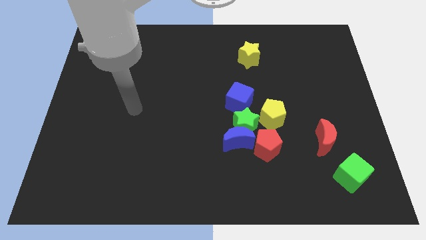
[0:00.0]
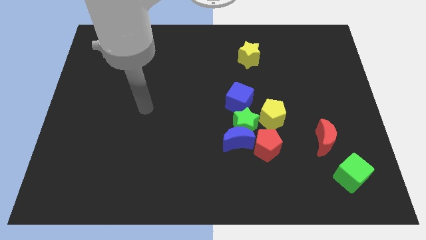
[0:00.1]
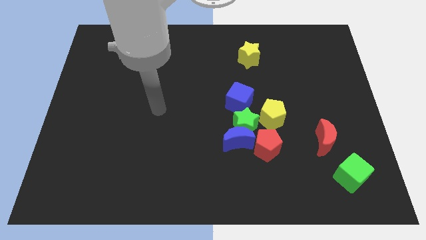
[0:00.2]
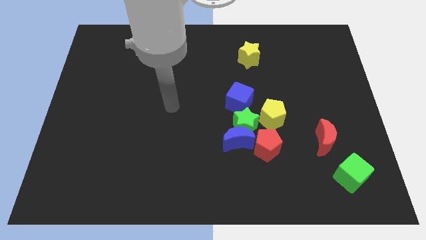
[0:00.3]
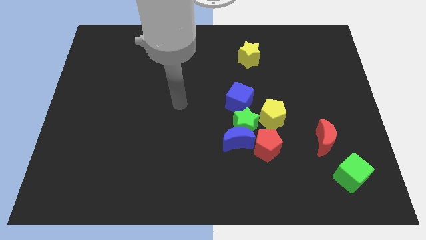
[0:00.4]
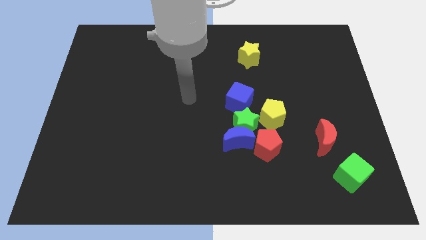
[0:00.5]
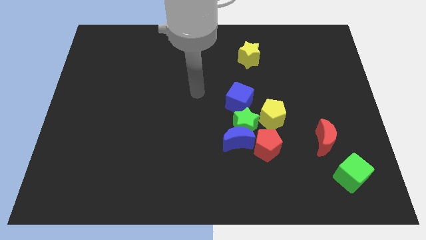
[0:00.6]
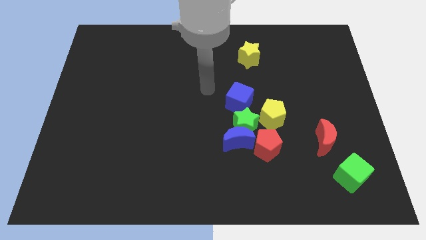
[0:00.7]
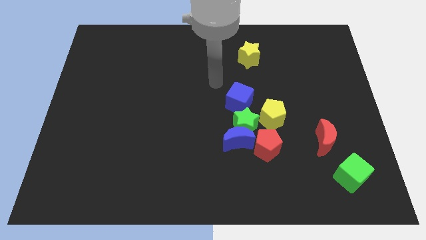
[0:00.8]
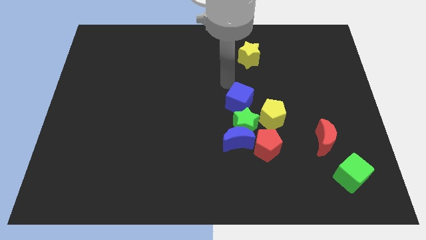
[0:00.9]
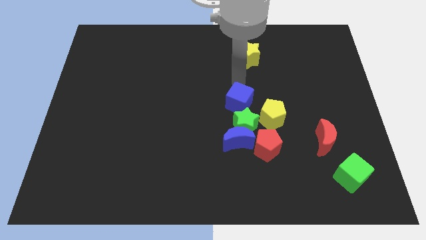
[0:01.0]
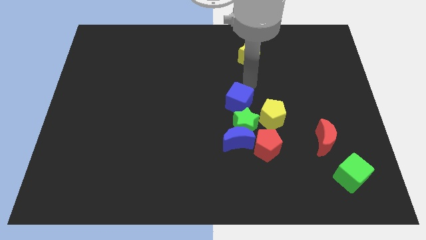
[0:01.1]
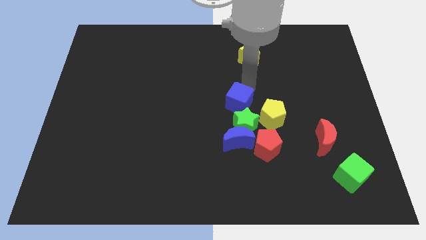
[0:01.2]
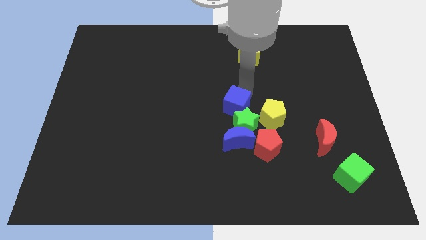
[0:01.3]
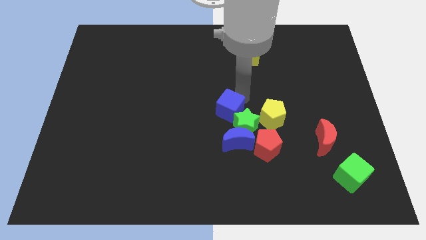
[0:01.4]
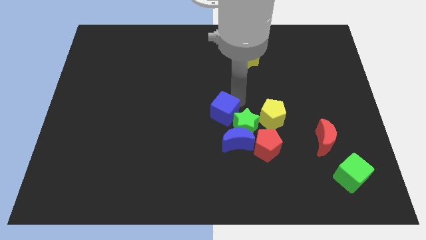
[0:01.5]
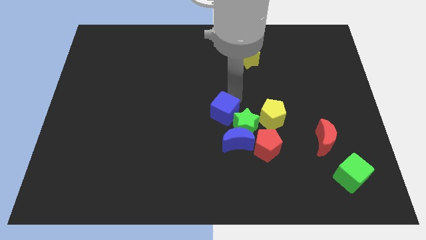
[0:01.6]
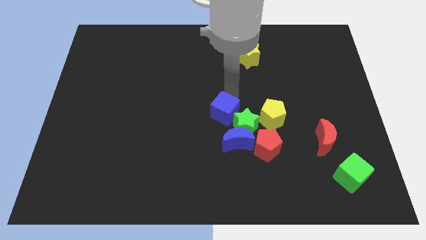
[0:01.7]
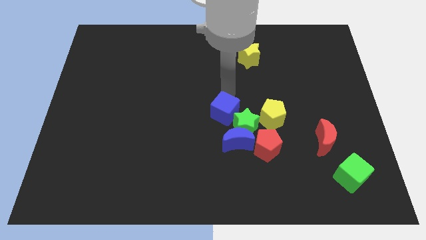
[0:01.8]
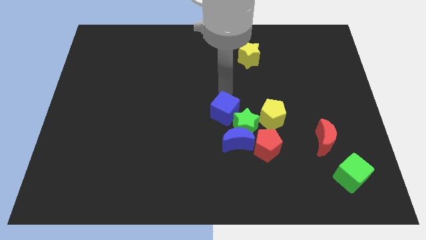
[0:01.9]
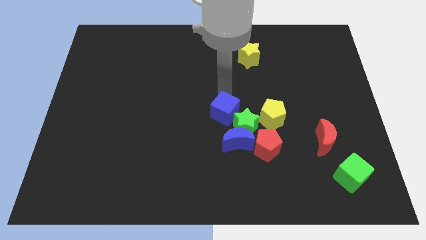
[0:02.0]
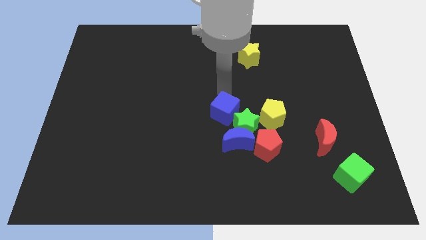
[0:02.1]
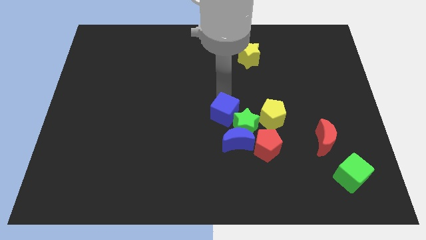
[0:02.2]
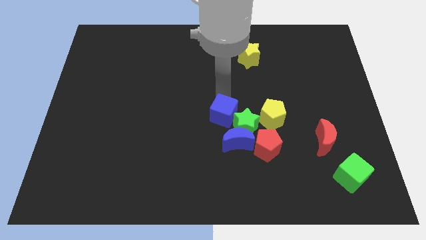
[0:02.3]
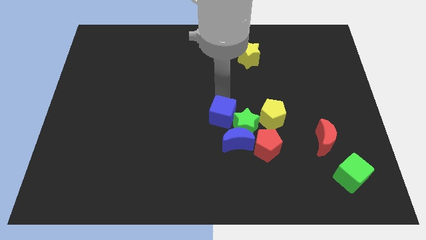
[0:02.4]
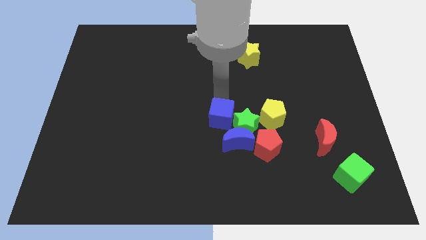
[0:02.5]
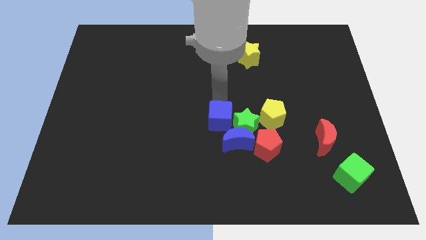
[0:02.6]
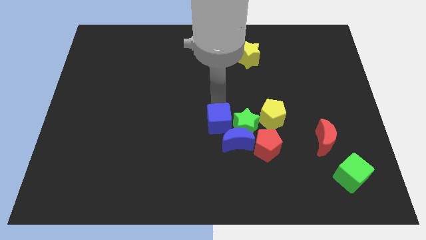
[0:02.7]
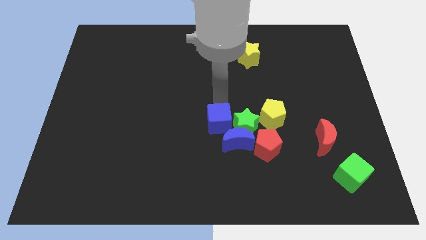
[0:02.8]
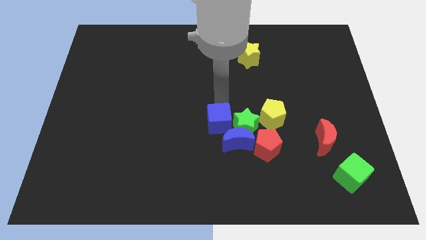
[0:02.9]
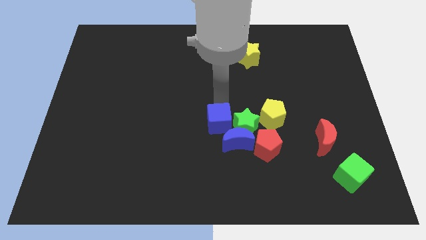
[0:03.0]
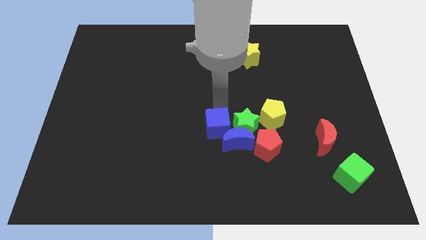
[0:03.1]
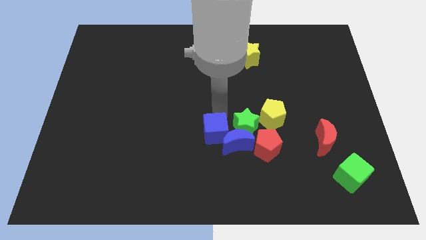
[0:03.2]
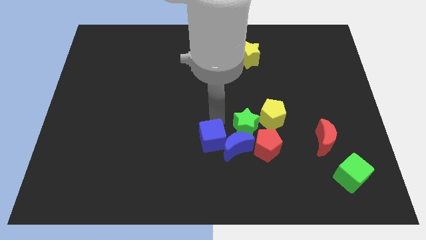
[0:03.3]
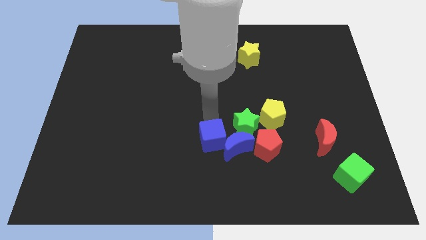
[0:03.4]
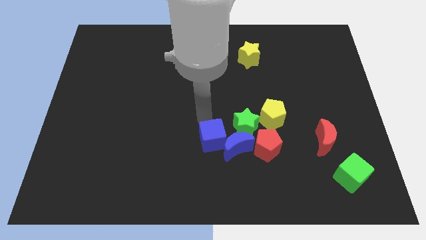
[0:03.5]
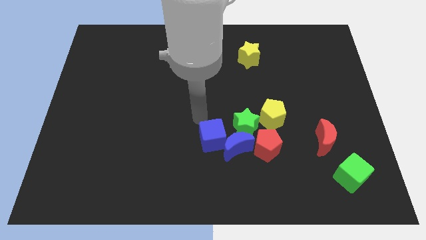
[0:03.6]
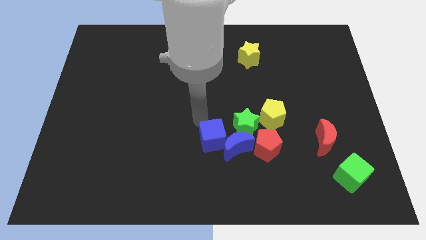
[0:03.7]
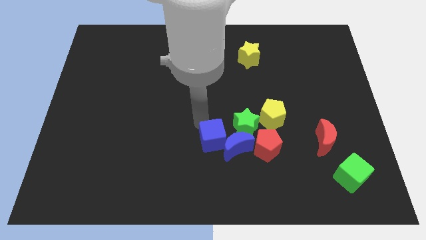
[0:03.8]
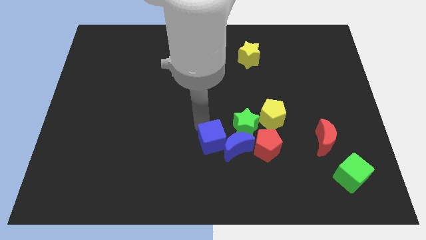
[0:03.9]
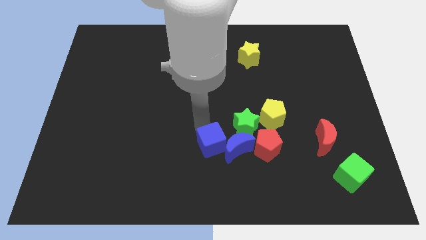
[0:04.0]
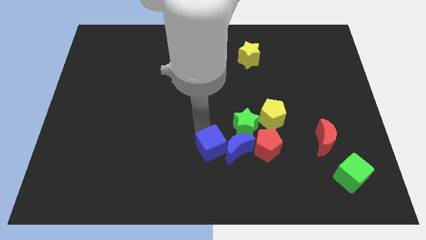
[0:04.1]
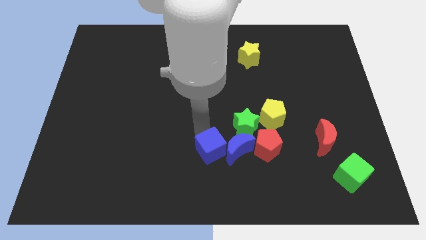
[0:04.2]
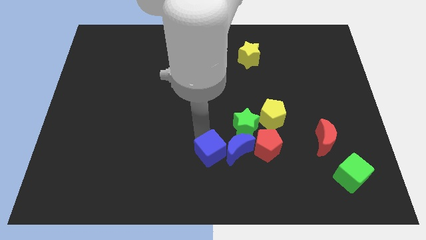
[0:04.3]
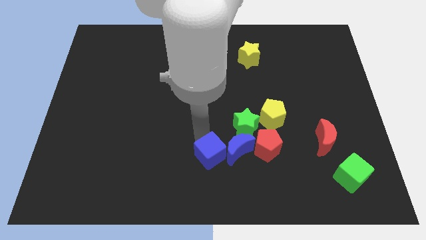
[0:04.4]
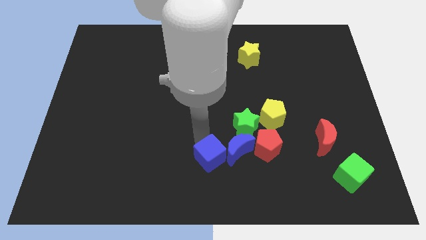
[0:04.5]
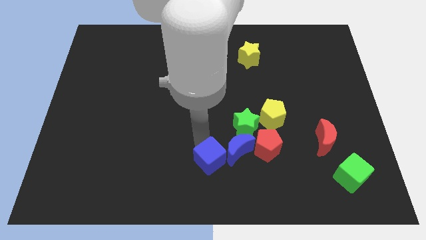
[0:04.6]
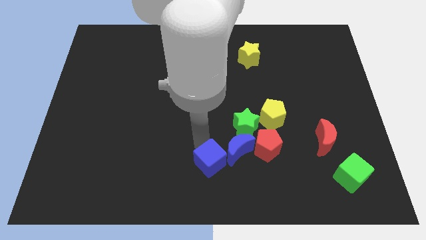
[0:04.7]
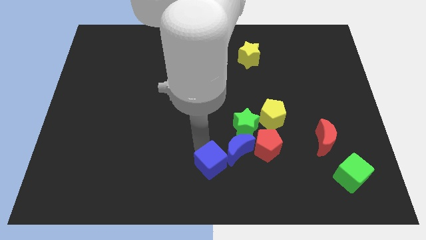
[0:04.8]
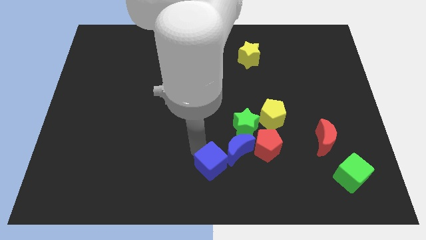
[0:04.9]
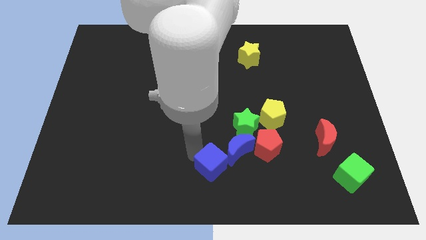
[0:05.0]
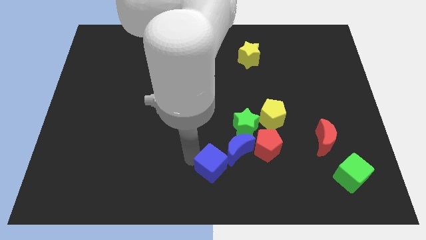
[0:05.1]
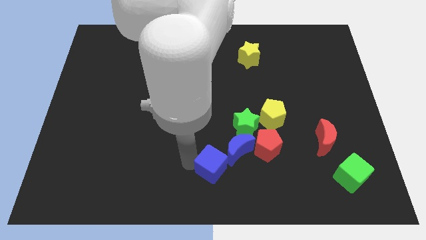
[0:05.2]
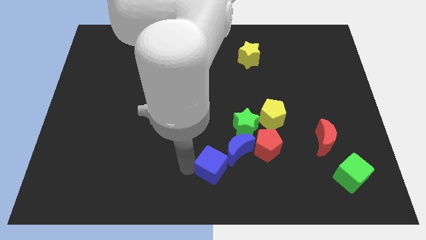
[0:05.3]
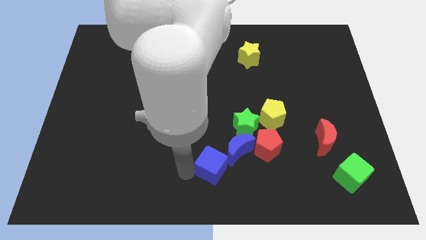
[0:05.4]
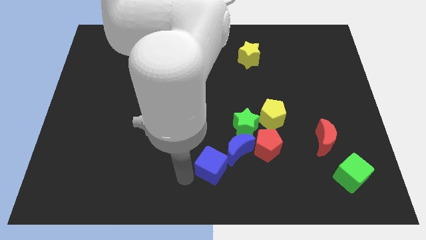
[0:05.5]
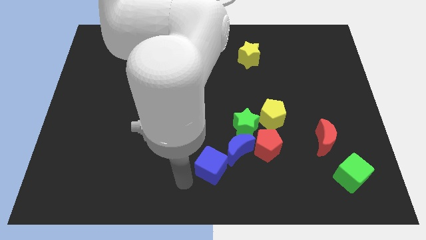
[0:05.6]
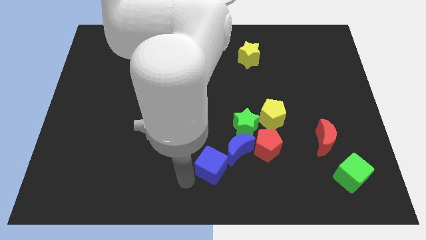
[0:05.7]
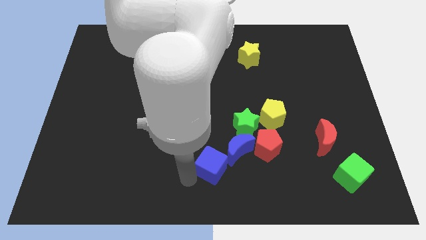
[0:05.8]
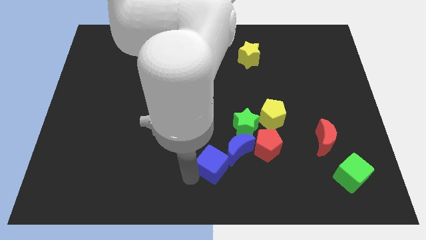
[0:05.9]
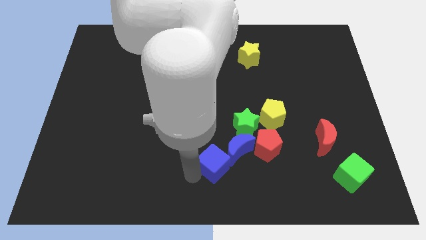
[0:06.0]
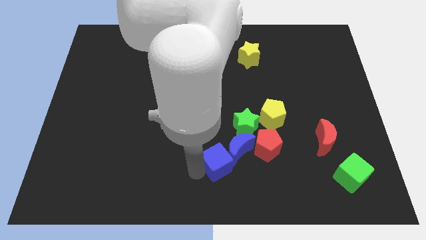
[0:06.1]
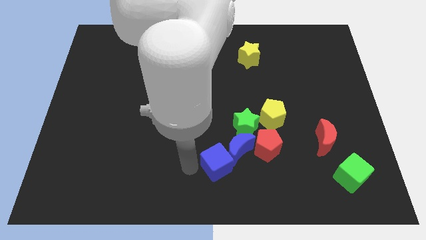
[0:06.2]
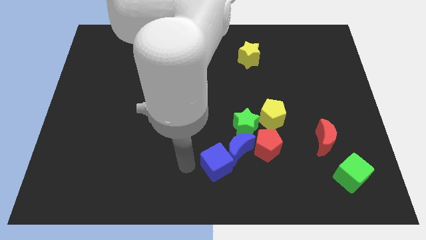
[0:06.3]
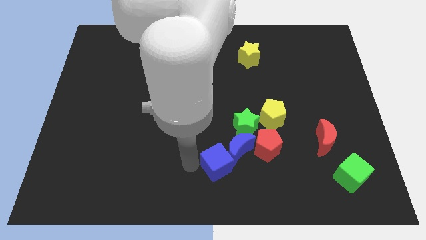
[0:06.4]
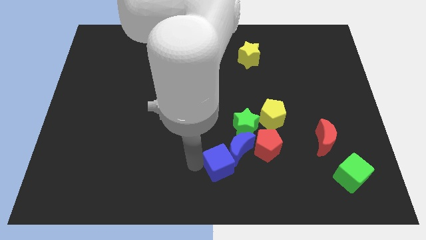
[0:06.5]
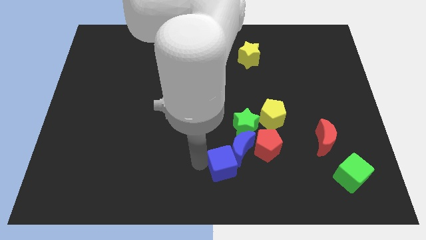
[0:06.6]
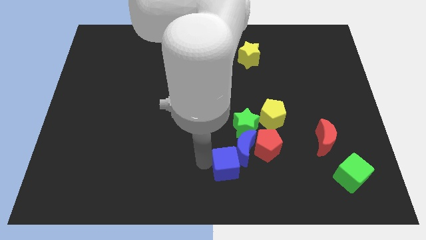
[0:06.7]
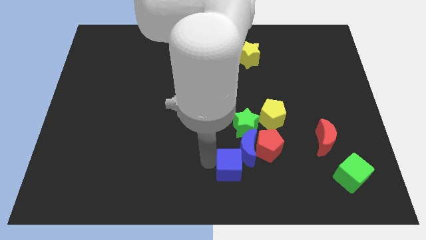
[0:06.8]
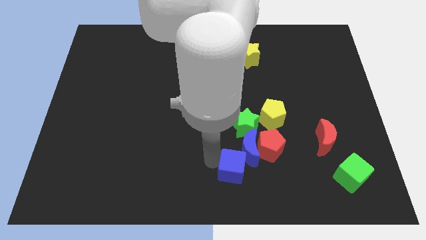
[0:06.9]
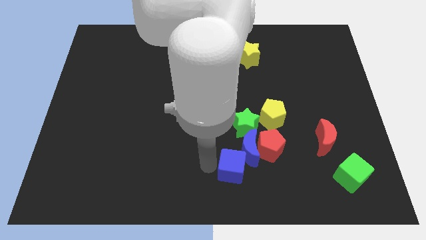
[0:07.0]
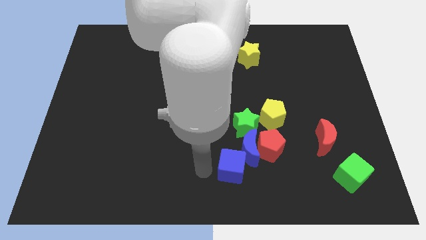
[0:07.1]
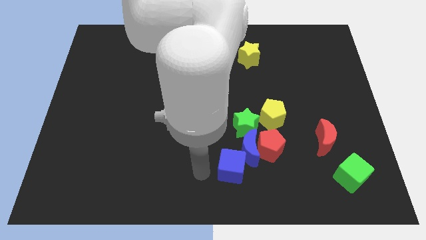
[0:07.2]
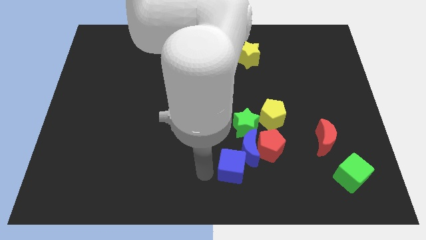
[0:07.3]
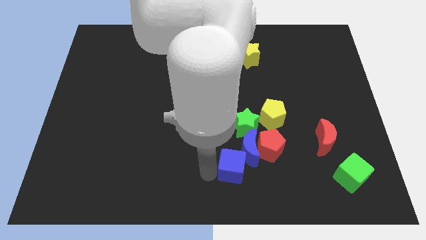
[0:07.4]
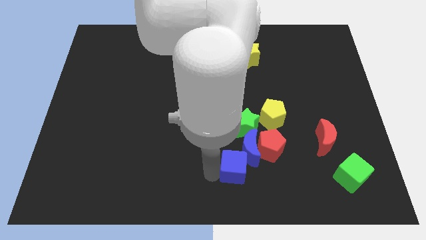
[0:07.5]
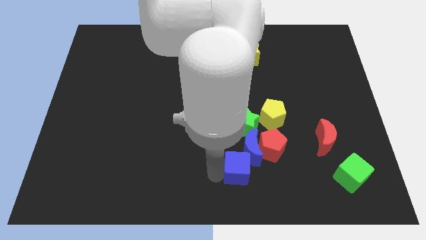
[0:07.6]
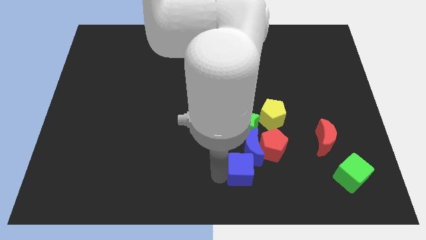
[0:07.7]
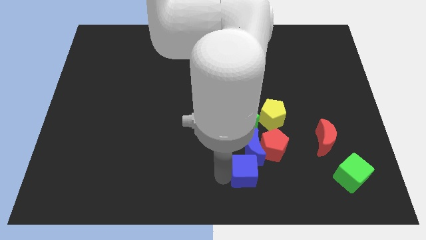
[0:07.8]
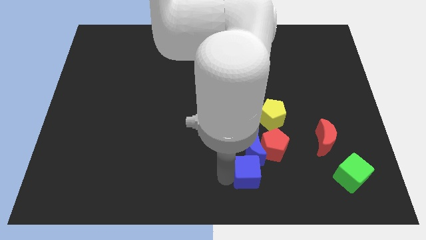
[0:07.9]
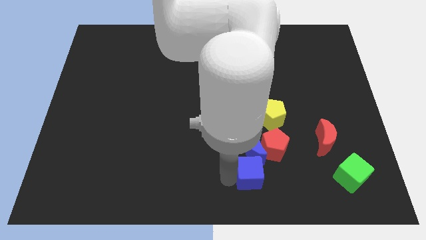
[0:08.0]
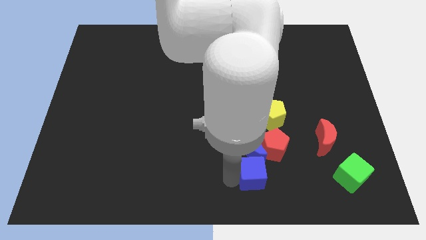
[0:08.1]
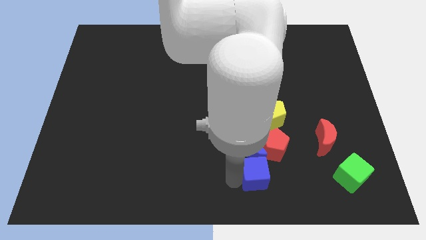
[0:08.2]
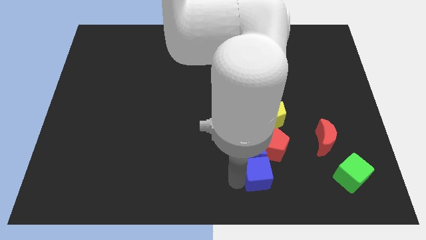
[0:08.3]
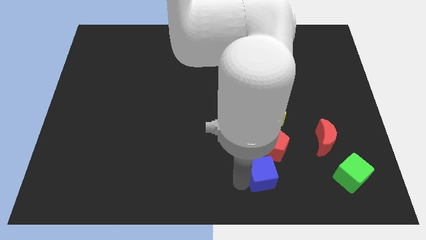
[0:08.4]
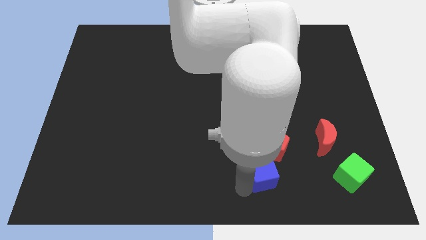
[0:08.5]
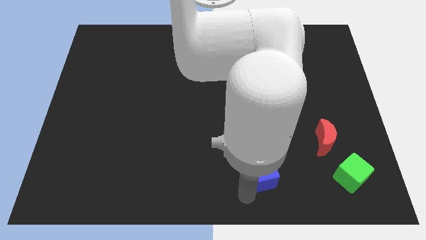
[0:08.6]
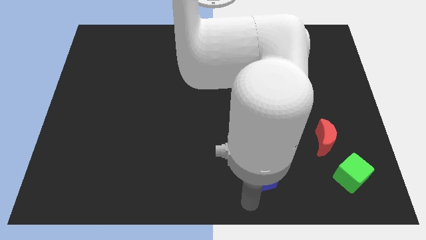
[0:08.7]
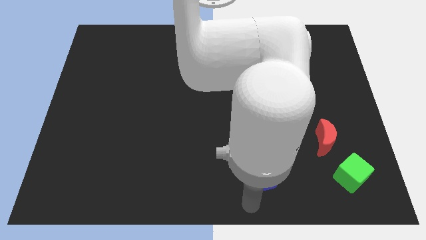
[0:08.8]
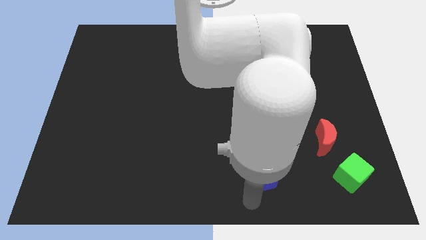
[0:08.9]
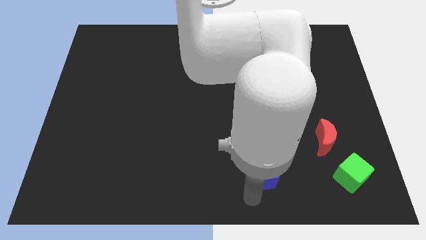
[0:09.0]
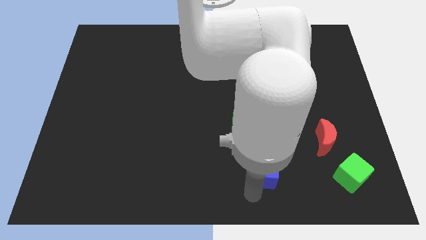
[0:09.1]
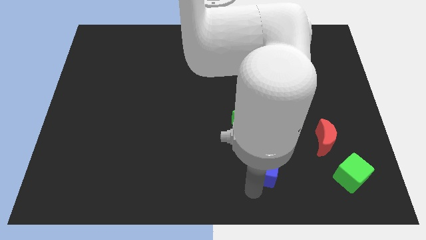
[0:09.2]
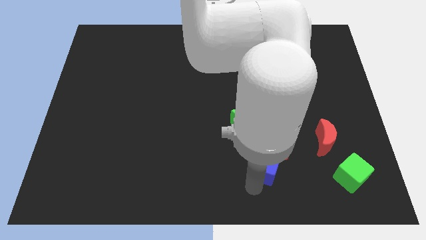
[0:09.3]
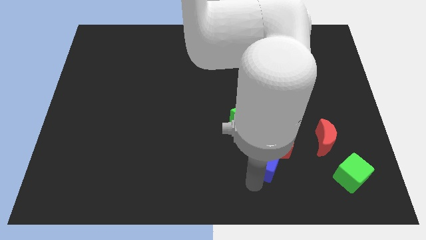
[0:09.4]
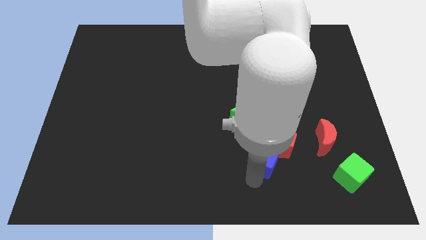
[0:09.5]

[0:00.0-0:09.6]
move the blue cube towards the red pentagon
